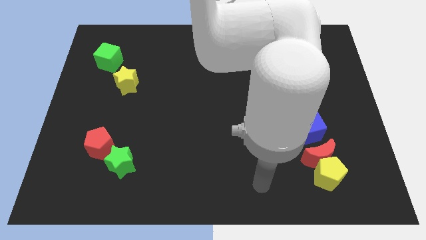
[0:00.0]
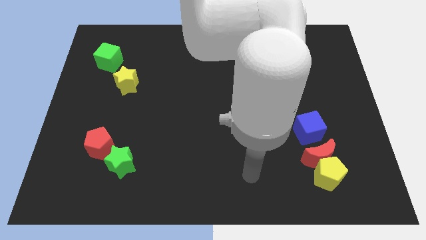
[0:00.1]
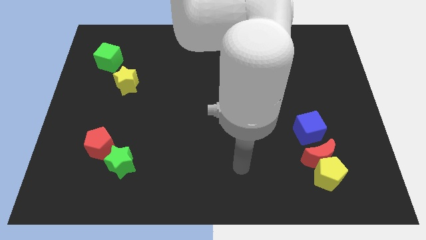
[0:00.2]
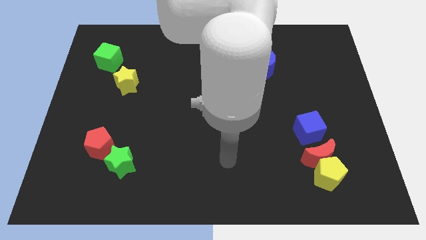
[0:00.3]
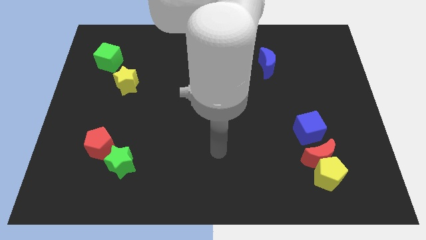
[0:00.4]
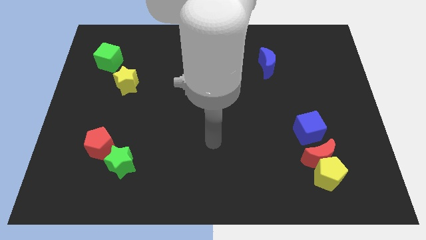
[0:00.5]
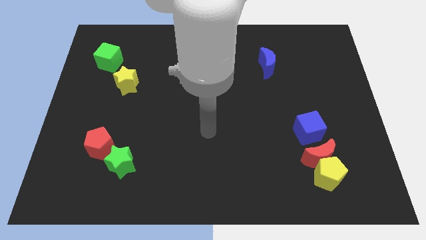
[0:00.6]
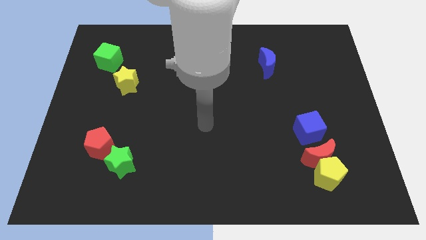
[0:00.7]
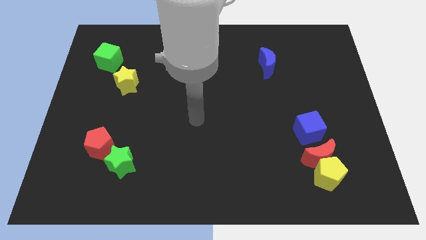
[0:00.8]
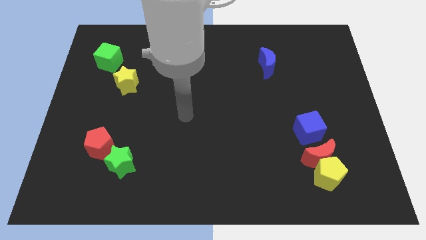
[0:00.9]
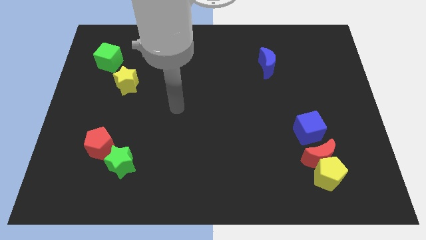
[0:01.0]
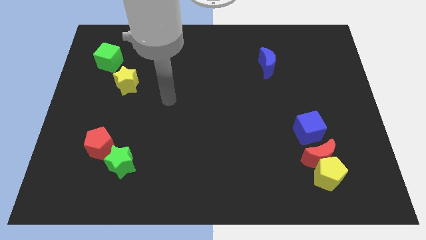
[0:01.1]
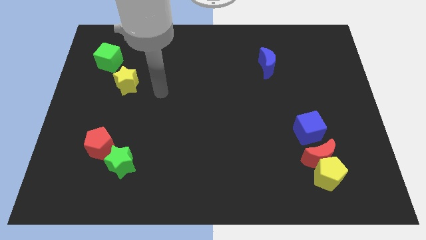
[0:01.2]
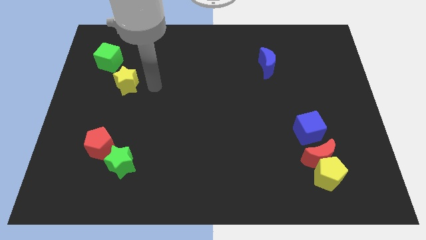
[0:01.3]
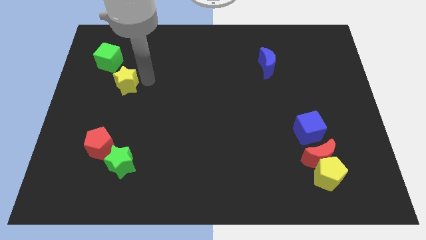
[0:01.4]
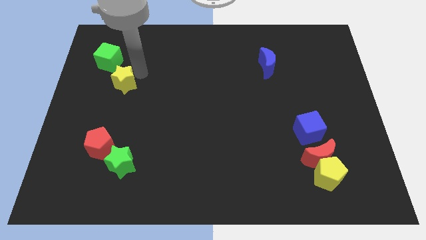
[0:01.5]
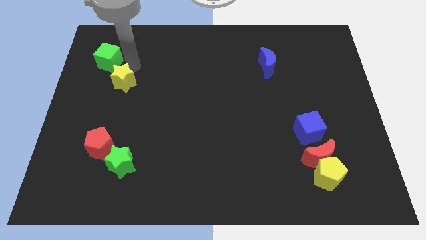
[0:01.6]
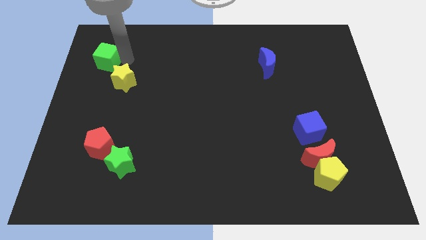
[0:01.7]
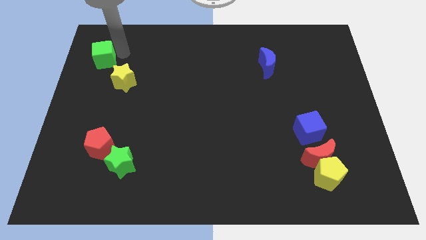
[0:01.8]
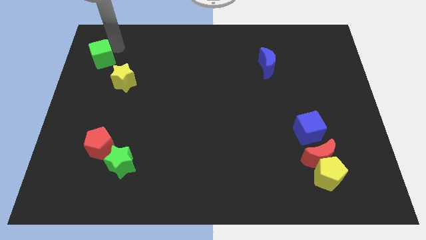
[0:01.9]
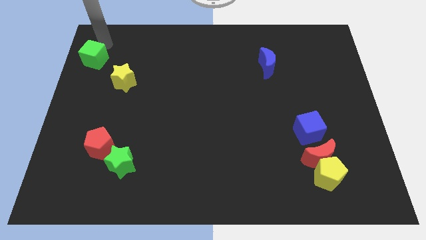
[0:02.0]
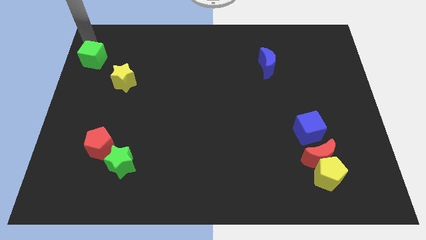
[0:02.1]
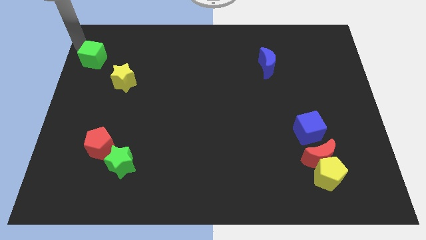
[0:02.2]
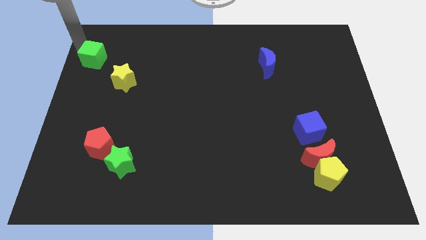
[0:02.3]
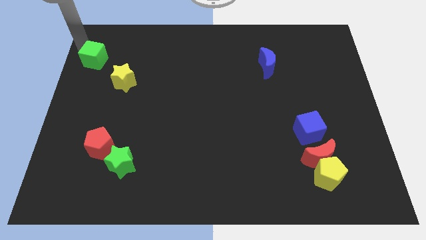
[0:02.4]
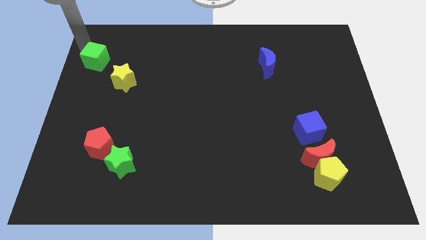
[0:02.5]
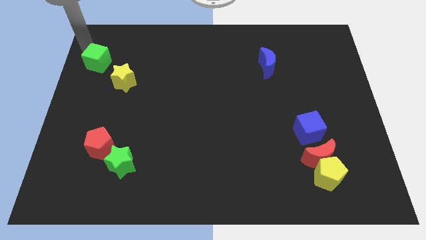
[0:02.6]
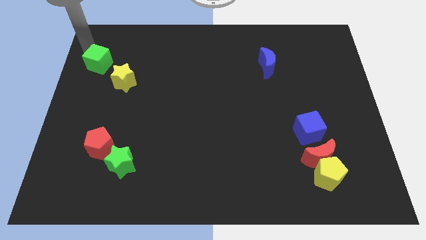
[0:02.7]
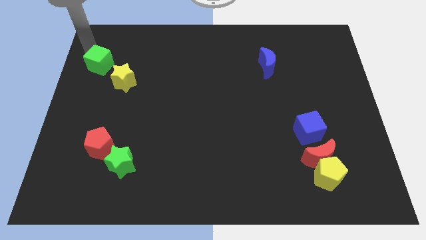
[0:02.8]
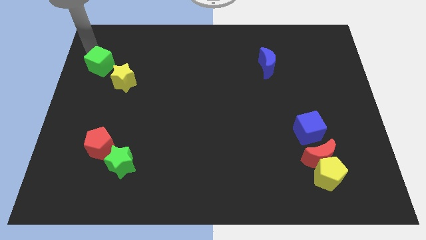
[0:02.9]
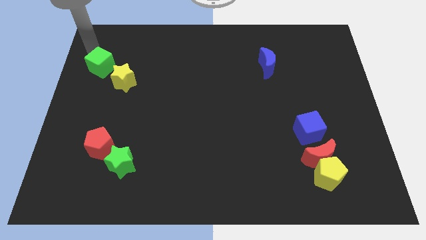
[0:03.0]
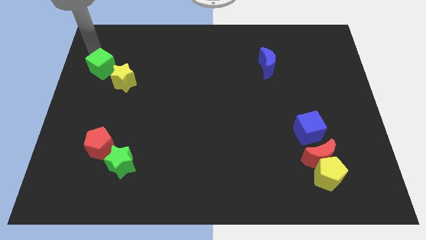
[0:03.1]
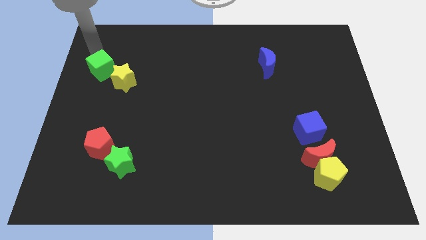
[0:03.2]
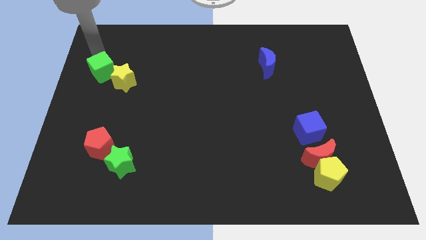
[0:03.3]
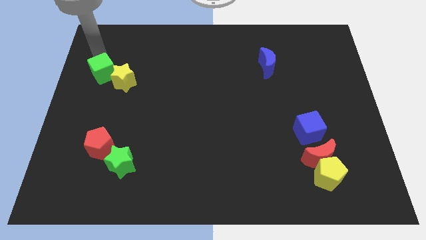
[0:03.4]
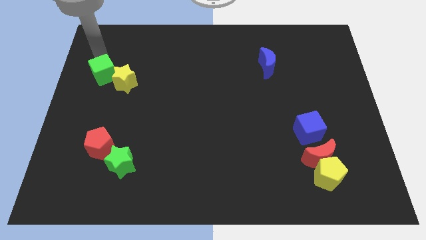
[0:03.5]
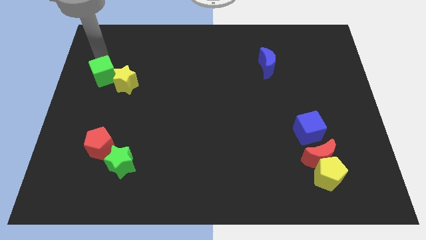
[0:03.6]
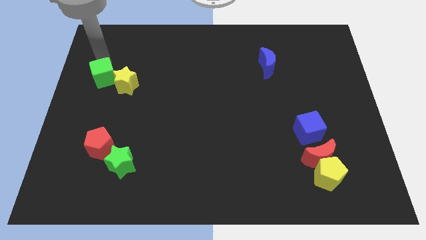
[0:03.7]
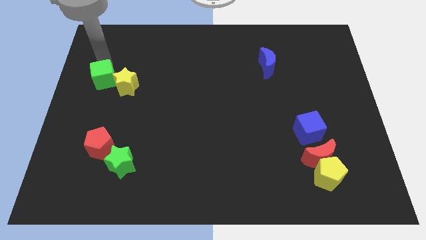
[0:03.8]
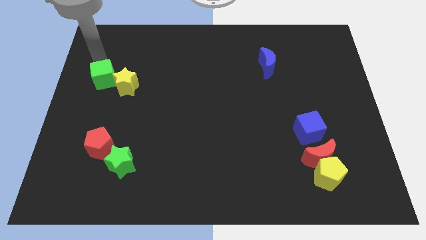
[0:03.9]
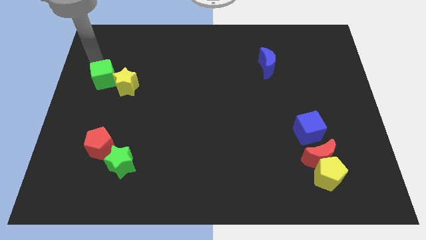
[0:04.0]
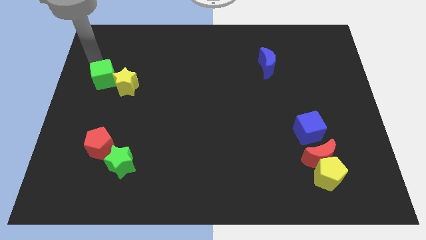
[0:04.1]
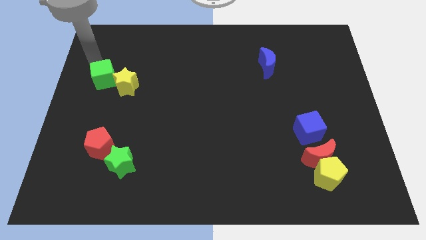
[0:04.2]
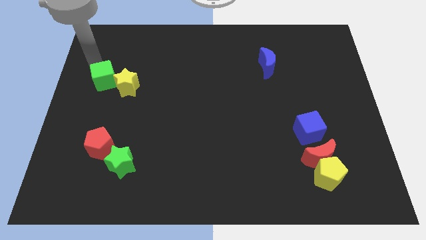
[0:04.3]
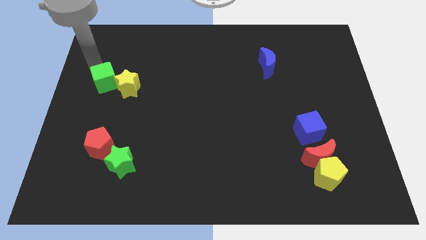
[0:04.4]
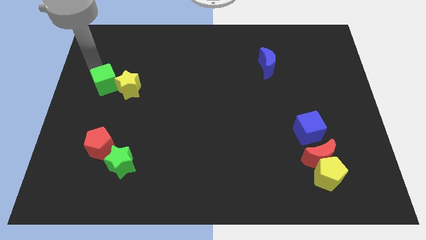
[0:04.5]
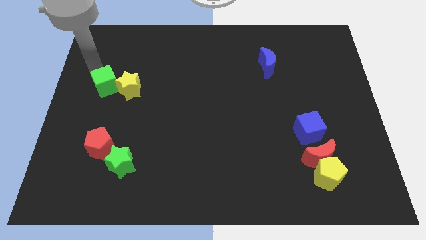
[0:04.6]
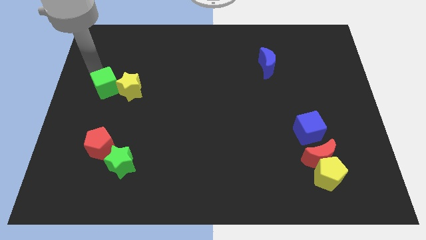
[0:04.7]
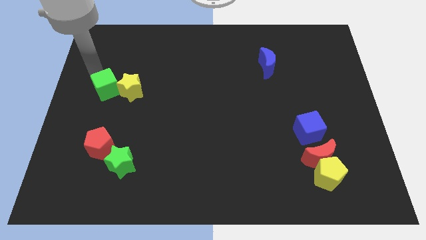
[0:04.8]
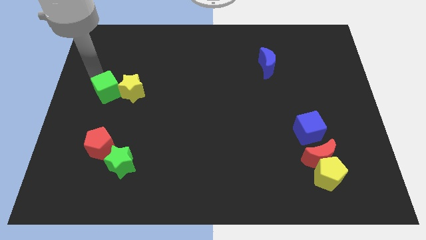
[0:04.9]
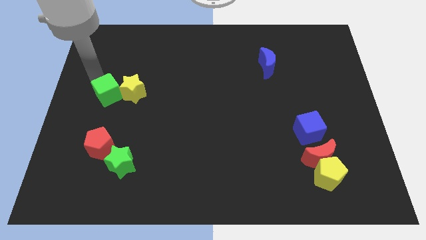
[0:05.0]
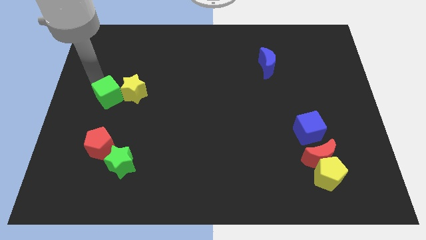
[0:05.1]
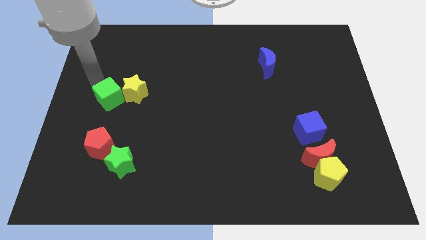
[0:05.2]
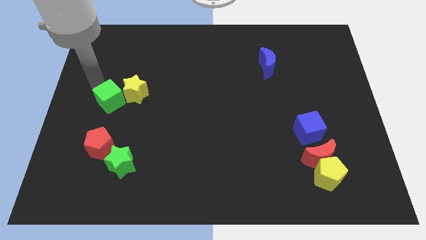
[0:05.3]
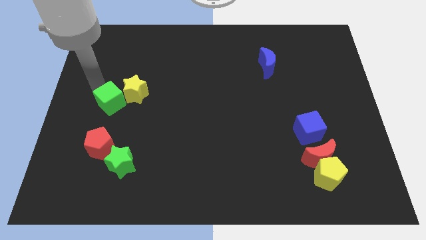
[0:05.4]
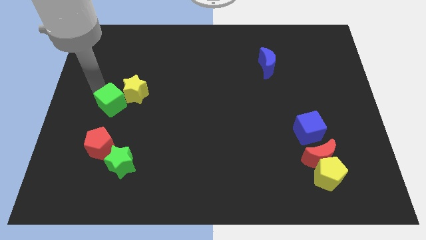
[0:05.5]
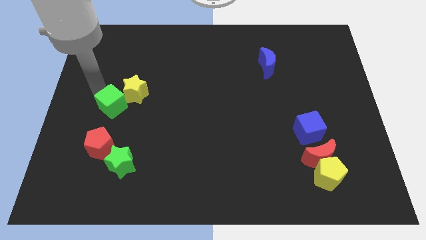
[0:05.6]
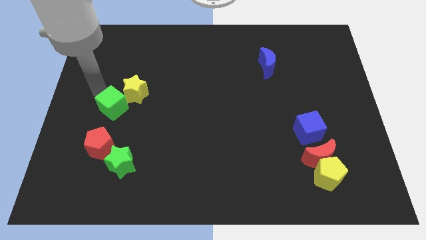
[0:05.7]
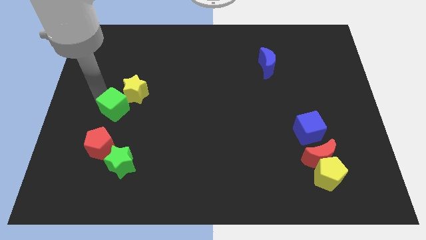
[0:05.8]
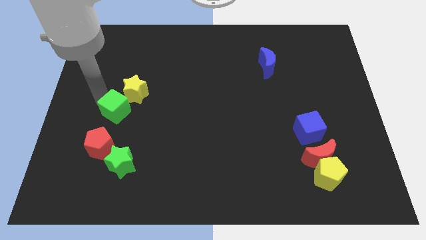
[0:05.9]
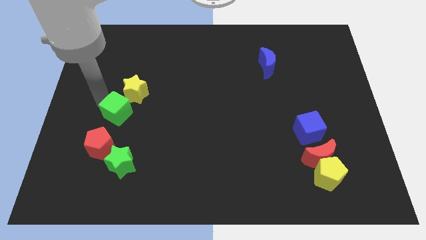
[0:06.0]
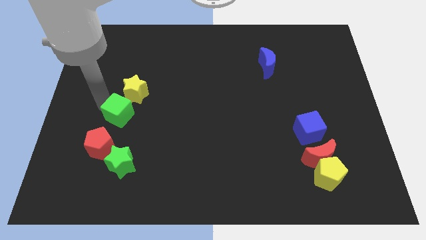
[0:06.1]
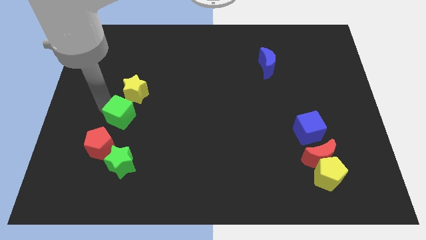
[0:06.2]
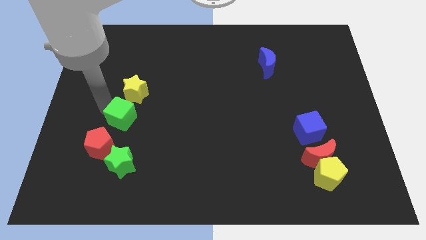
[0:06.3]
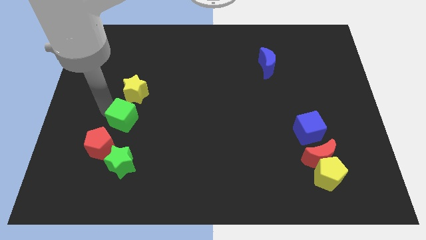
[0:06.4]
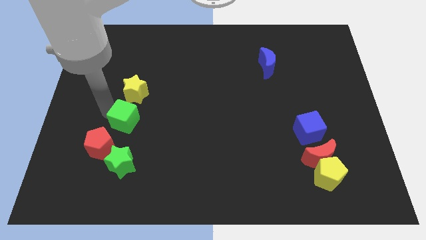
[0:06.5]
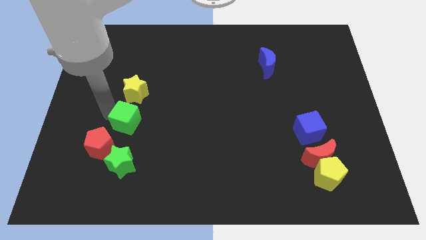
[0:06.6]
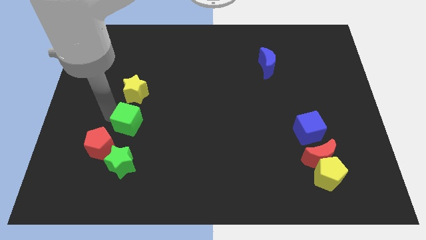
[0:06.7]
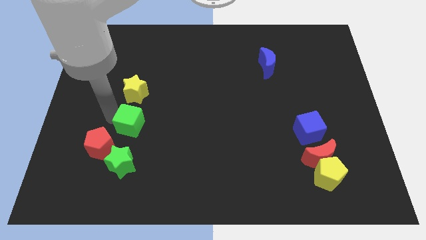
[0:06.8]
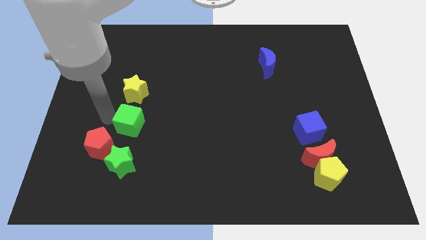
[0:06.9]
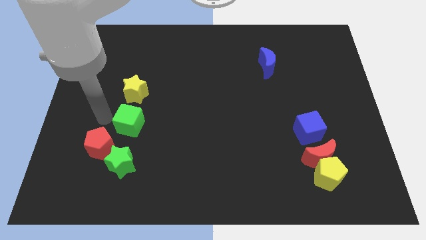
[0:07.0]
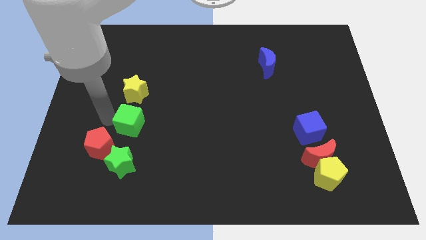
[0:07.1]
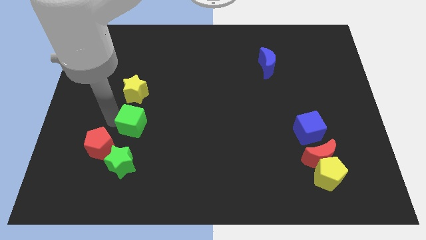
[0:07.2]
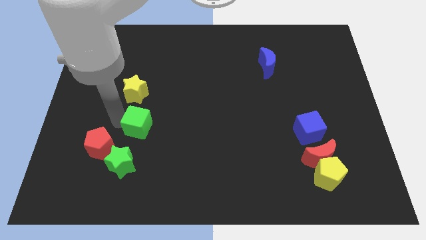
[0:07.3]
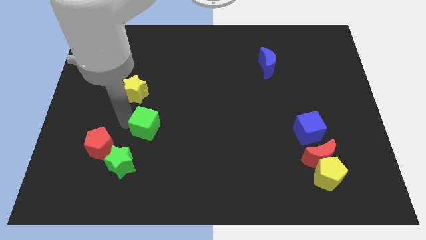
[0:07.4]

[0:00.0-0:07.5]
push the green cube to the top right of the green star
